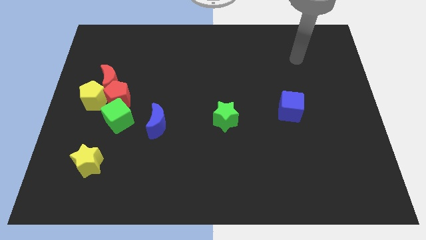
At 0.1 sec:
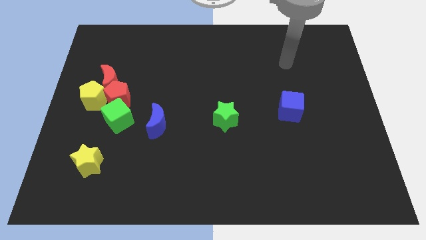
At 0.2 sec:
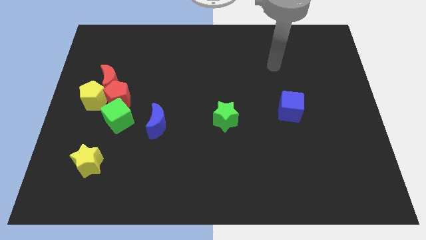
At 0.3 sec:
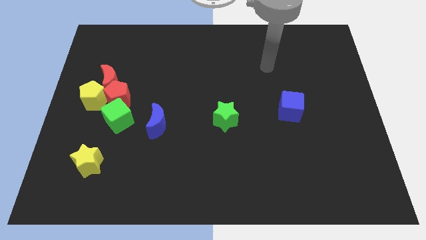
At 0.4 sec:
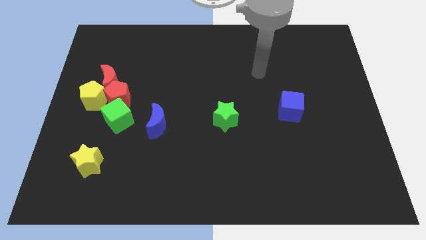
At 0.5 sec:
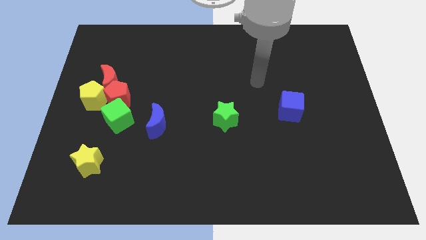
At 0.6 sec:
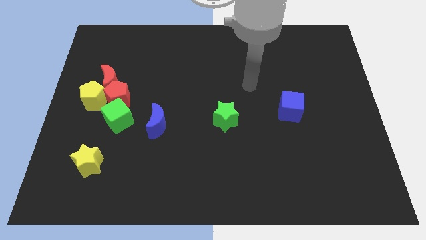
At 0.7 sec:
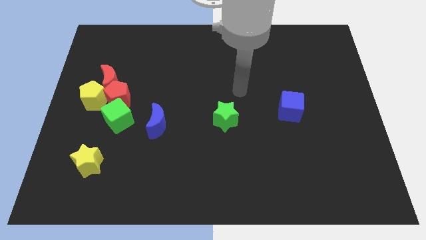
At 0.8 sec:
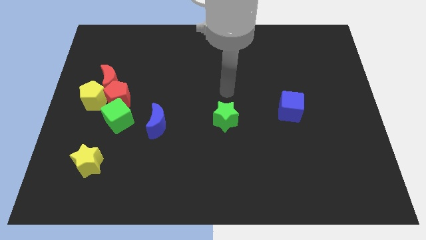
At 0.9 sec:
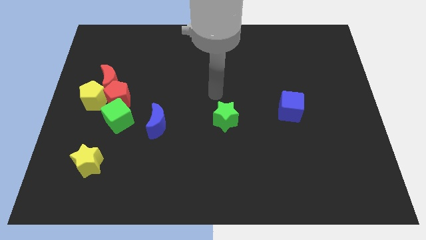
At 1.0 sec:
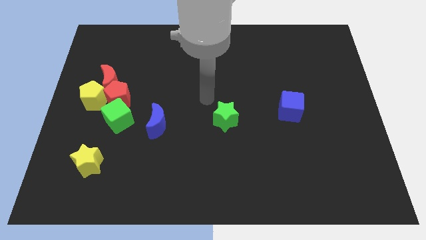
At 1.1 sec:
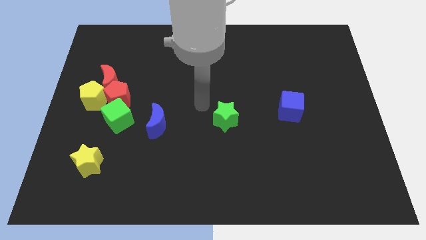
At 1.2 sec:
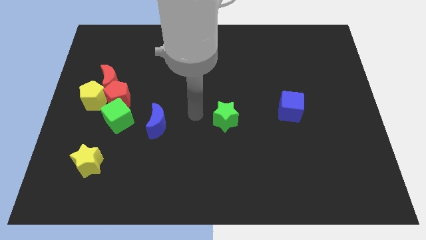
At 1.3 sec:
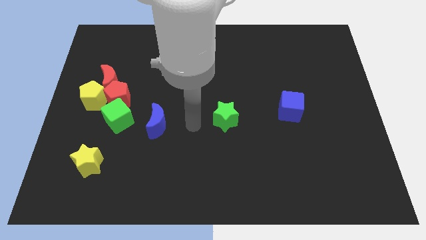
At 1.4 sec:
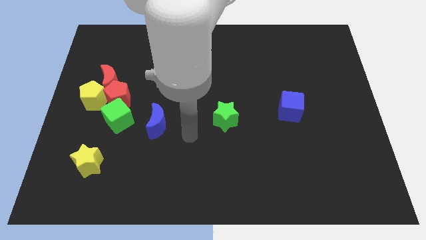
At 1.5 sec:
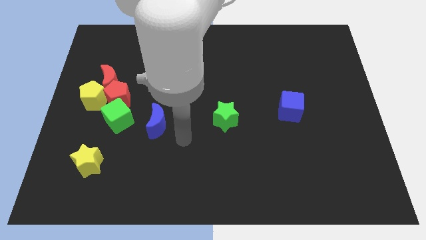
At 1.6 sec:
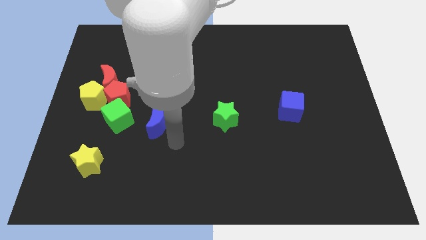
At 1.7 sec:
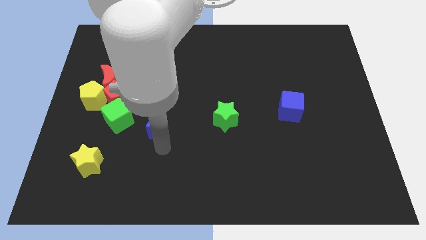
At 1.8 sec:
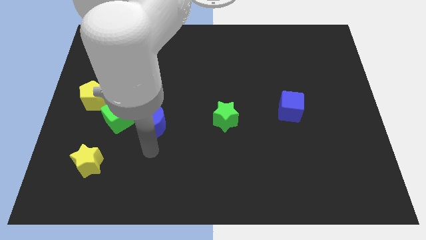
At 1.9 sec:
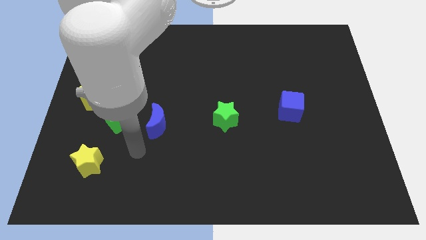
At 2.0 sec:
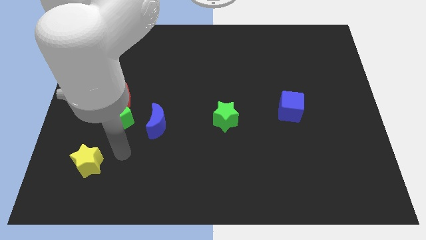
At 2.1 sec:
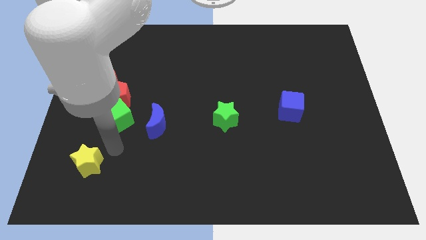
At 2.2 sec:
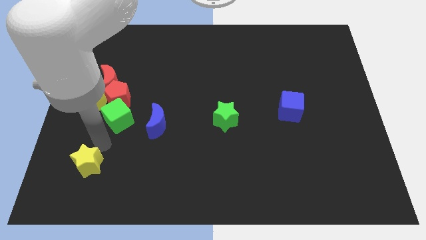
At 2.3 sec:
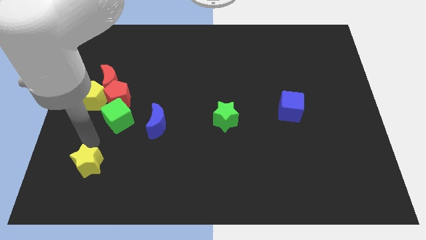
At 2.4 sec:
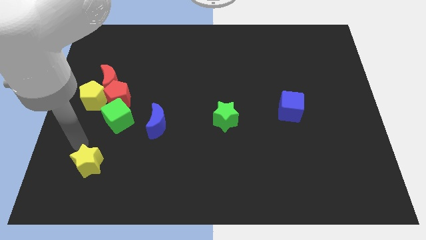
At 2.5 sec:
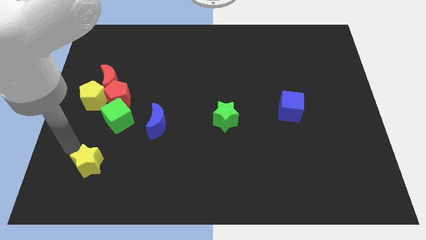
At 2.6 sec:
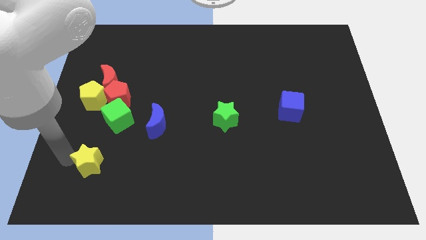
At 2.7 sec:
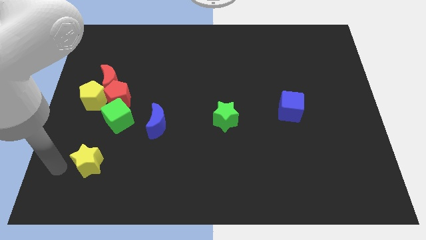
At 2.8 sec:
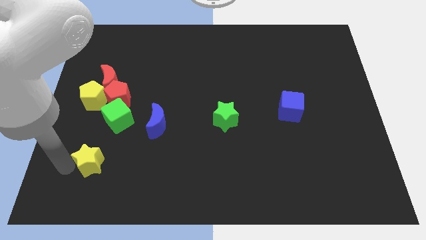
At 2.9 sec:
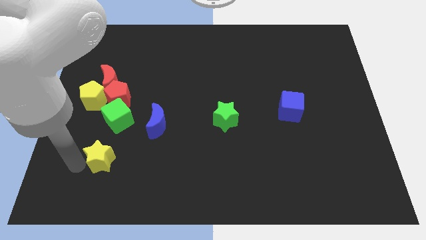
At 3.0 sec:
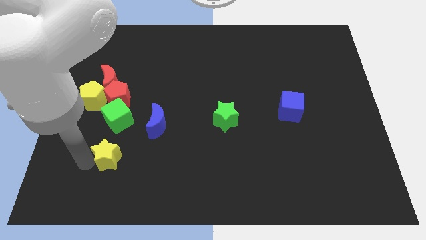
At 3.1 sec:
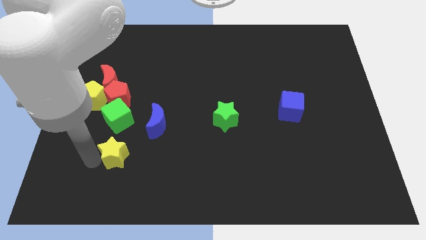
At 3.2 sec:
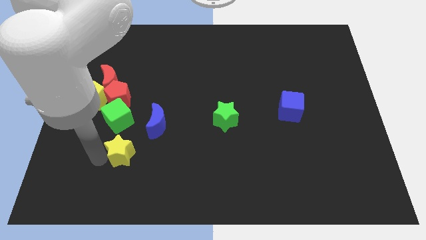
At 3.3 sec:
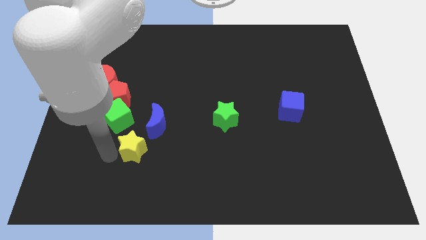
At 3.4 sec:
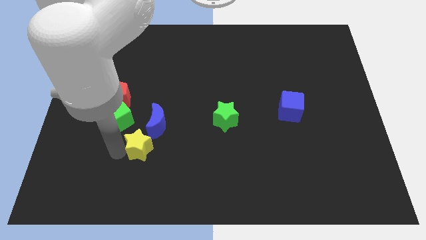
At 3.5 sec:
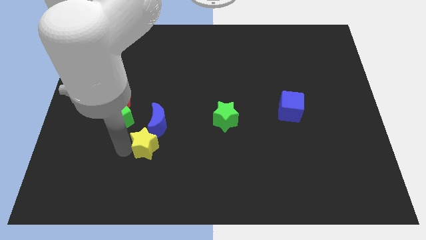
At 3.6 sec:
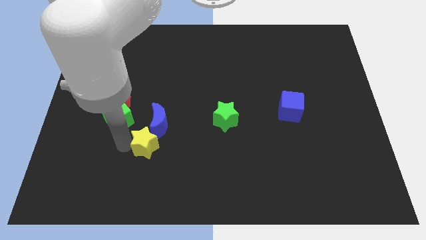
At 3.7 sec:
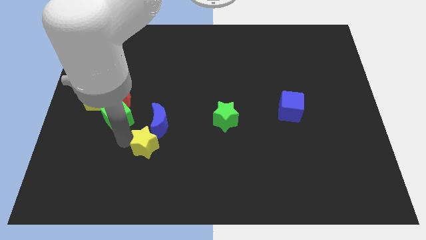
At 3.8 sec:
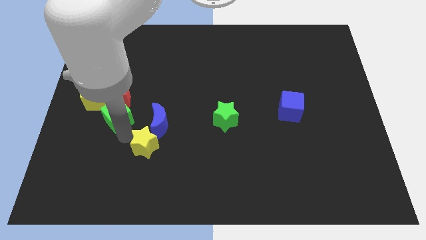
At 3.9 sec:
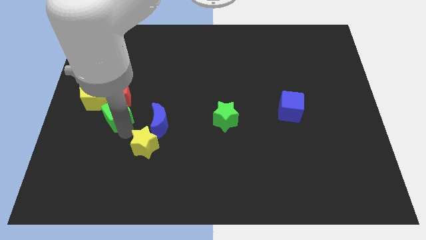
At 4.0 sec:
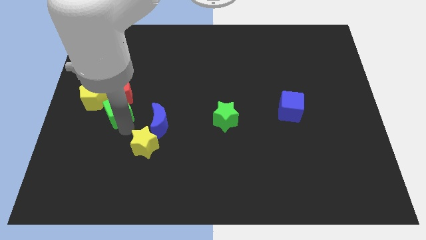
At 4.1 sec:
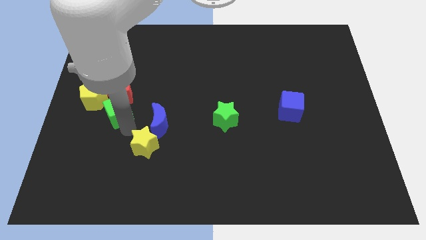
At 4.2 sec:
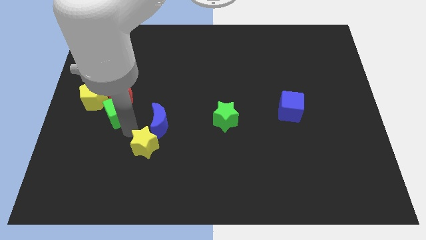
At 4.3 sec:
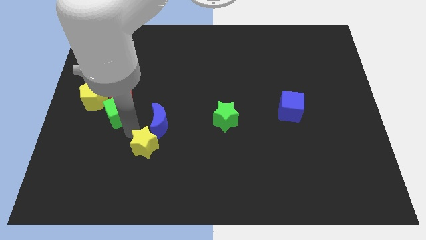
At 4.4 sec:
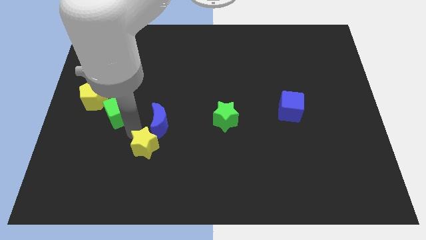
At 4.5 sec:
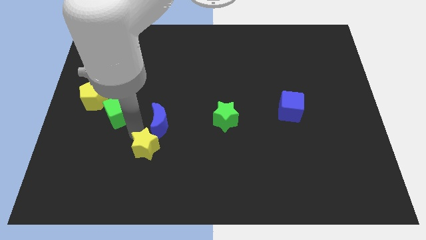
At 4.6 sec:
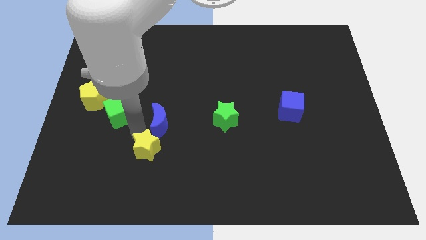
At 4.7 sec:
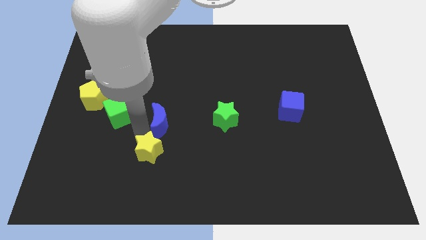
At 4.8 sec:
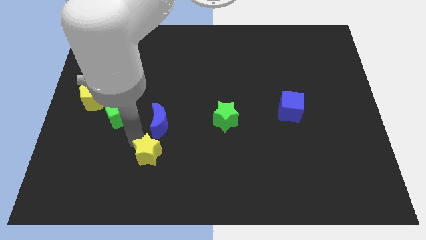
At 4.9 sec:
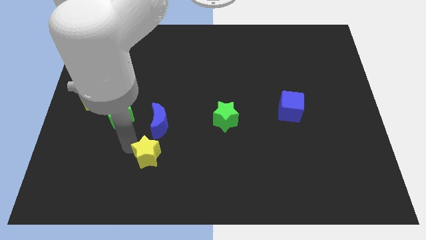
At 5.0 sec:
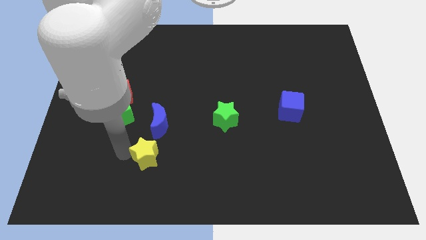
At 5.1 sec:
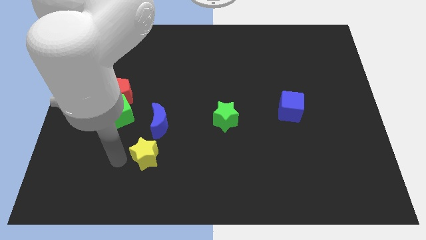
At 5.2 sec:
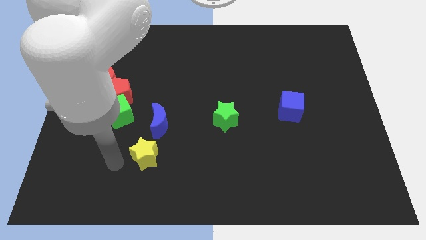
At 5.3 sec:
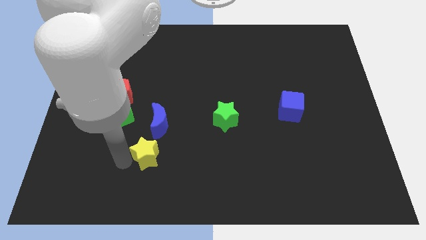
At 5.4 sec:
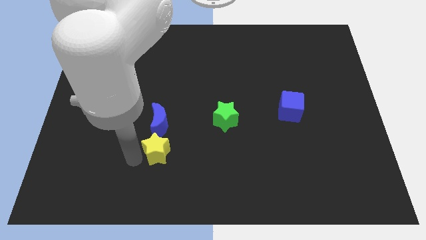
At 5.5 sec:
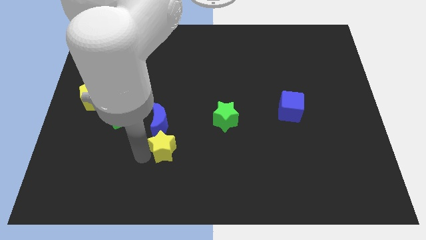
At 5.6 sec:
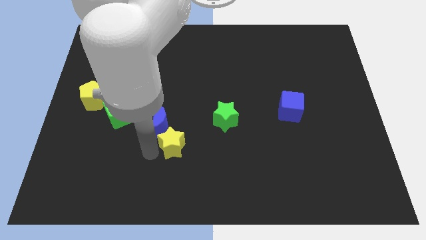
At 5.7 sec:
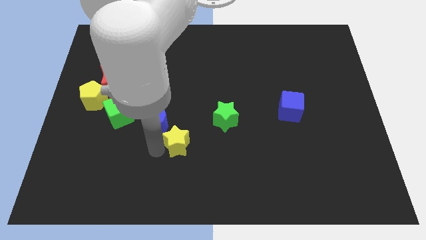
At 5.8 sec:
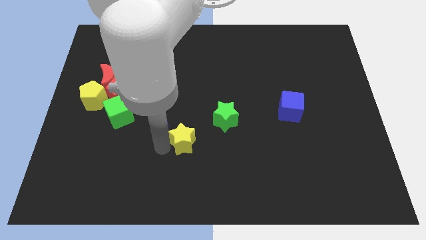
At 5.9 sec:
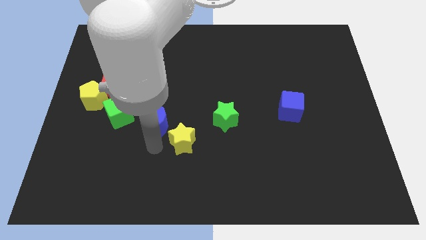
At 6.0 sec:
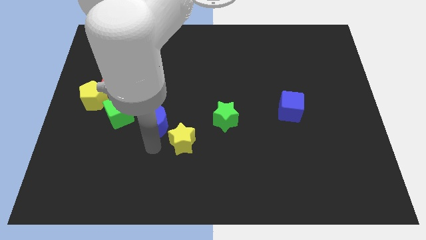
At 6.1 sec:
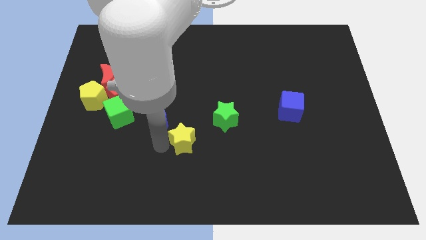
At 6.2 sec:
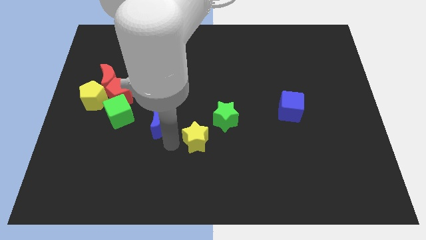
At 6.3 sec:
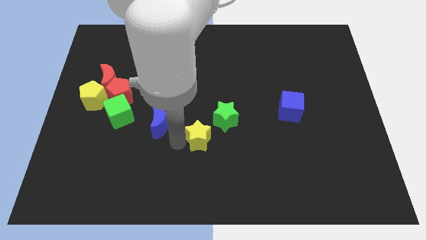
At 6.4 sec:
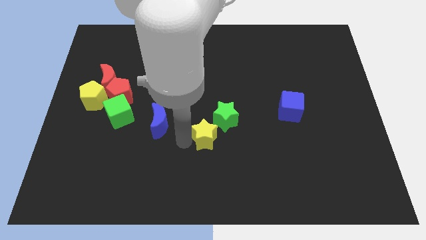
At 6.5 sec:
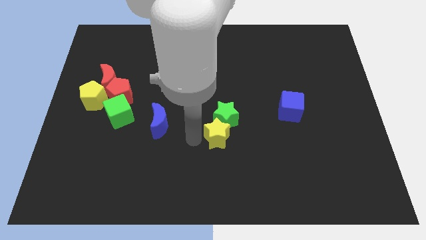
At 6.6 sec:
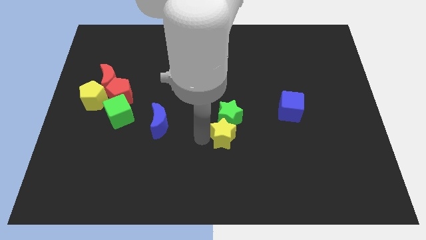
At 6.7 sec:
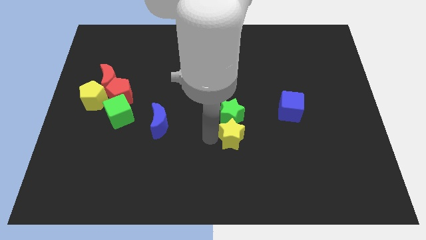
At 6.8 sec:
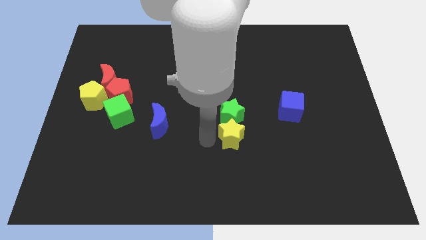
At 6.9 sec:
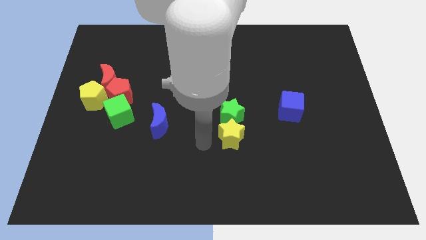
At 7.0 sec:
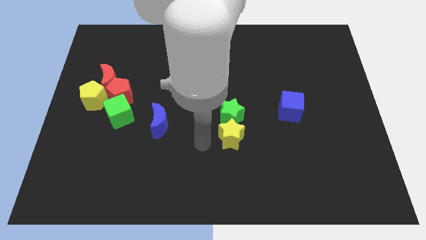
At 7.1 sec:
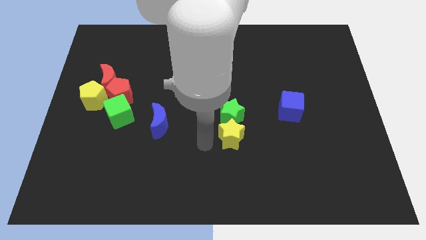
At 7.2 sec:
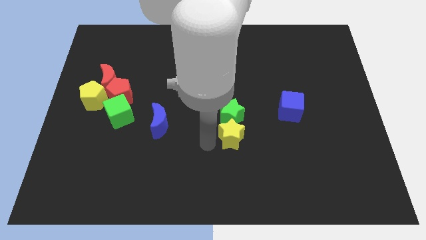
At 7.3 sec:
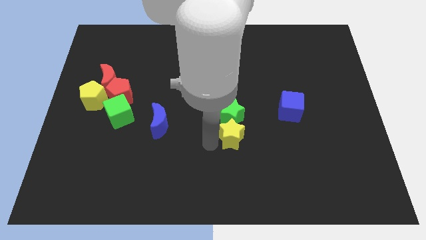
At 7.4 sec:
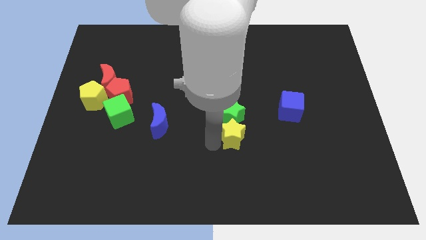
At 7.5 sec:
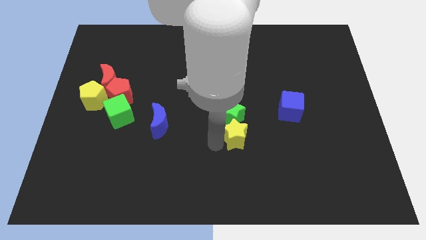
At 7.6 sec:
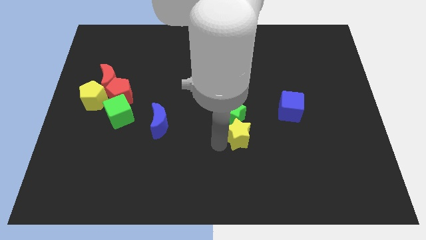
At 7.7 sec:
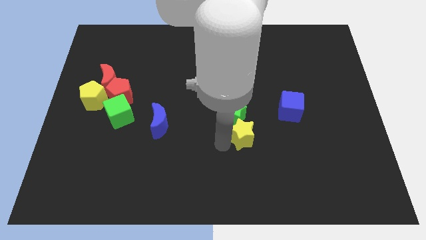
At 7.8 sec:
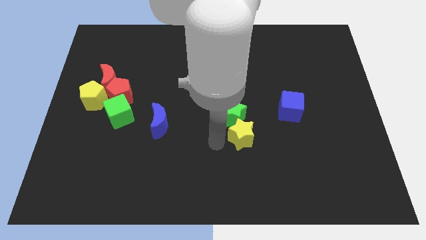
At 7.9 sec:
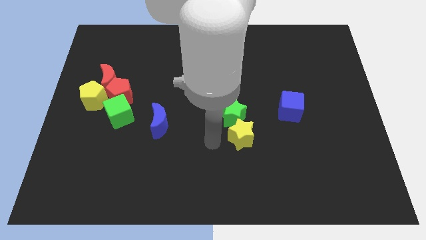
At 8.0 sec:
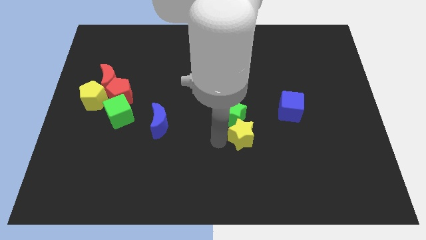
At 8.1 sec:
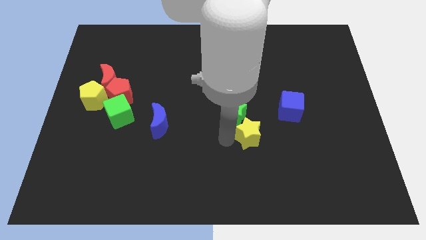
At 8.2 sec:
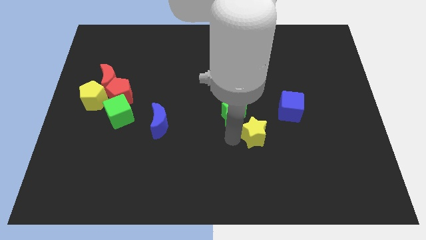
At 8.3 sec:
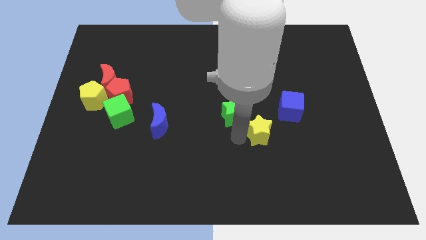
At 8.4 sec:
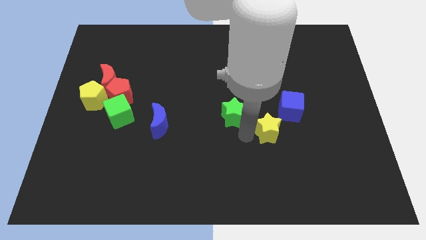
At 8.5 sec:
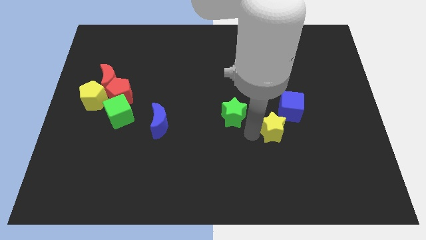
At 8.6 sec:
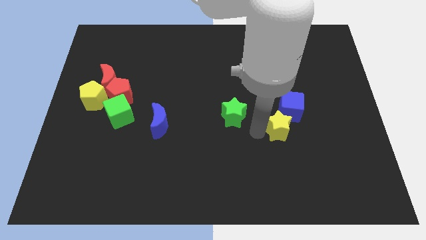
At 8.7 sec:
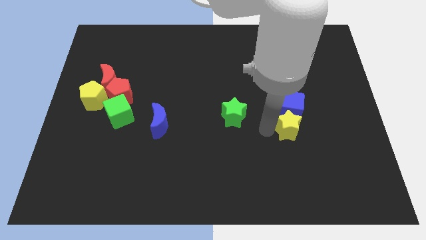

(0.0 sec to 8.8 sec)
put the yellow star diagonally down and to the right of the blue cube
